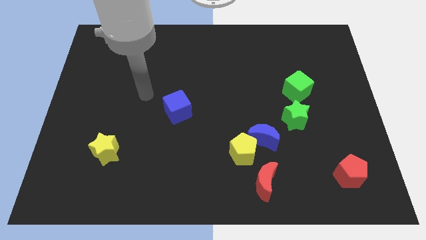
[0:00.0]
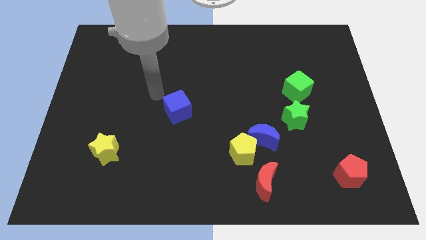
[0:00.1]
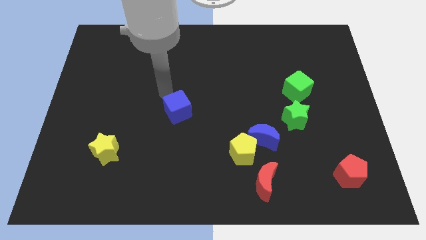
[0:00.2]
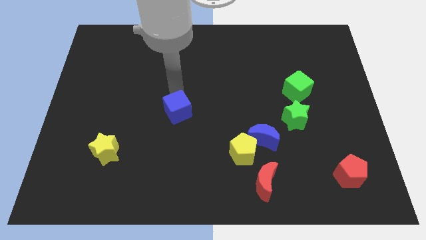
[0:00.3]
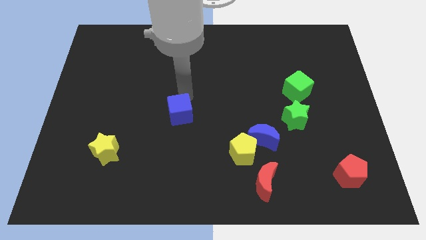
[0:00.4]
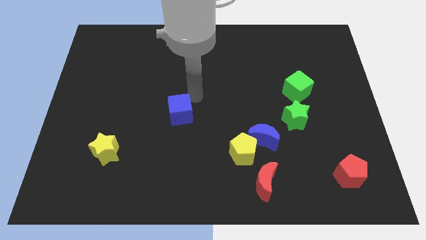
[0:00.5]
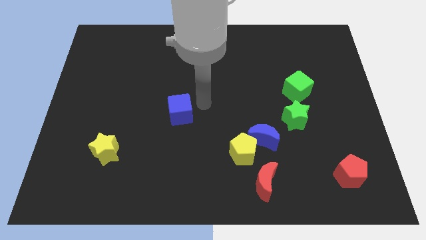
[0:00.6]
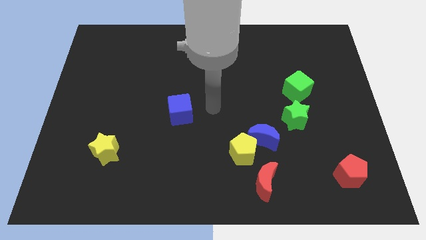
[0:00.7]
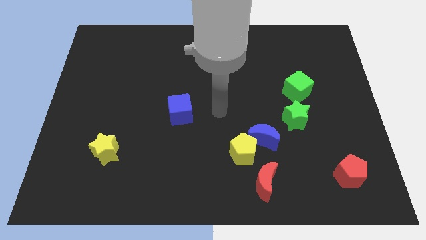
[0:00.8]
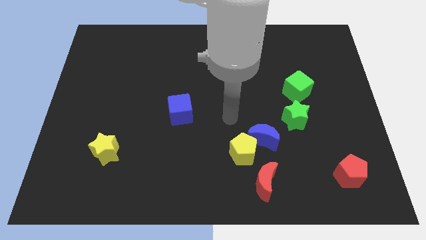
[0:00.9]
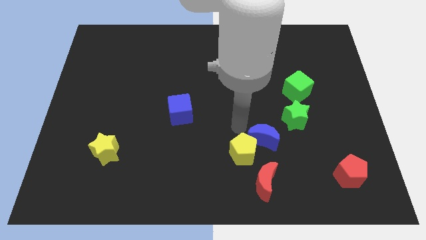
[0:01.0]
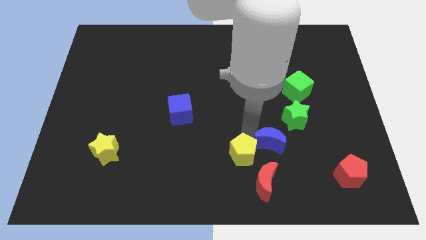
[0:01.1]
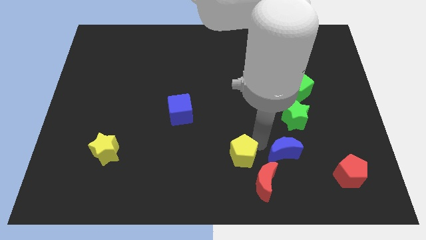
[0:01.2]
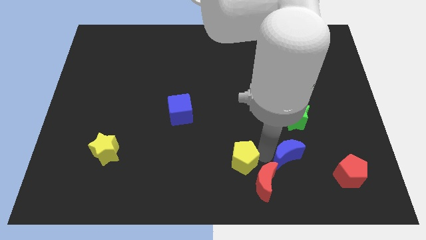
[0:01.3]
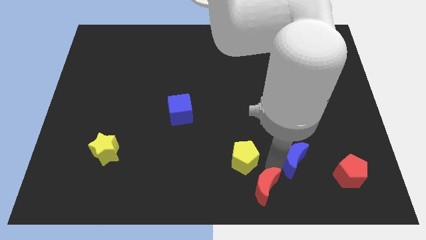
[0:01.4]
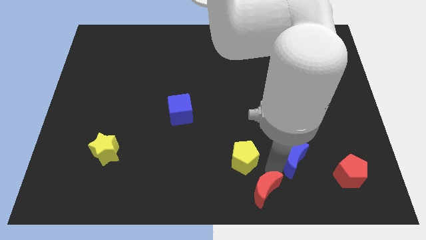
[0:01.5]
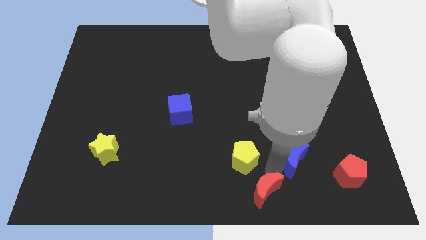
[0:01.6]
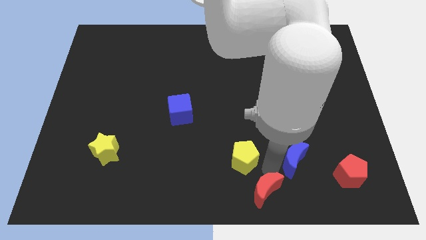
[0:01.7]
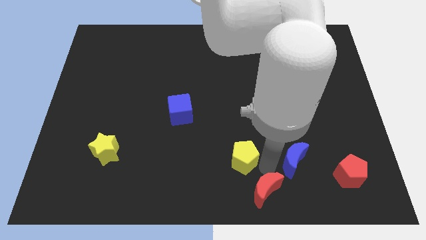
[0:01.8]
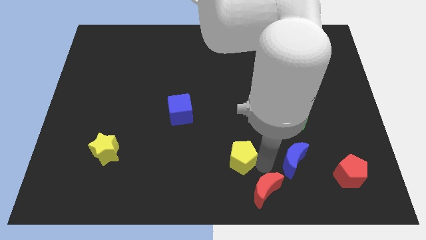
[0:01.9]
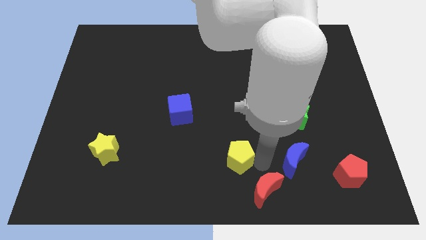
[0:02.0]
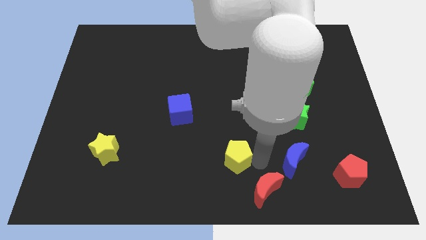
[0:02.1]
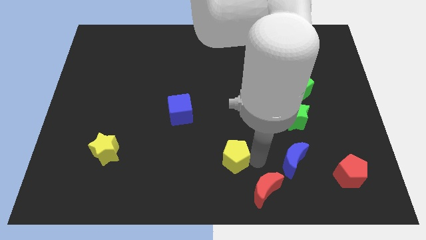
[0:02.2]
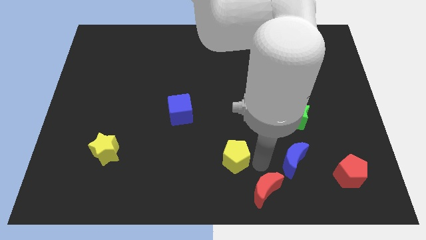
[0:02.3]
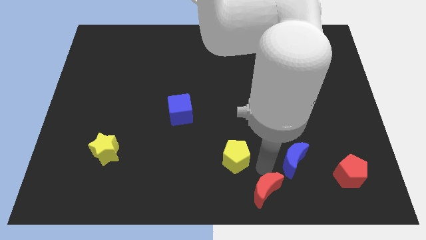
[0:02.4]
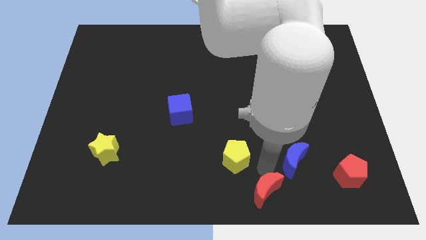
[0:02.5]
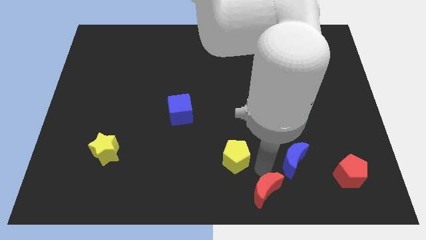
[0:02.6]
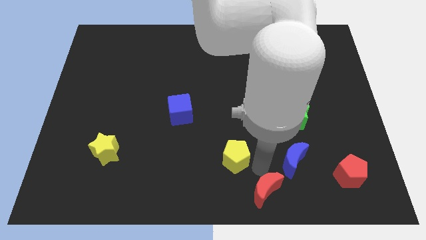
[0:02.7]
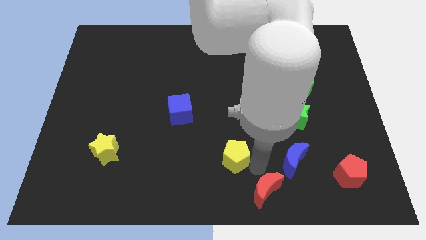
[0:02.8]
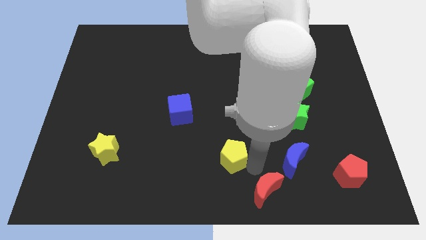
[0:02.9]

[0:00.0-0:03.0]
separate the yellow pentagon from the blue moon and red moon

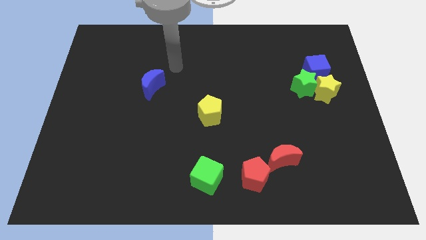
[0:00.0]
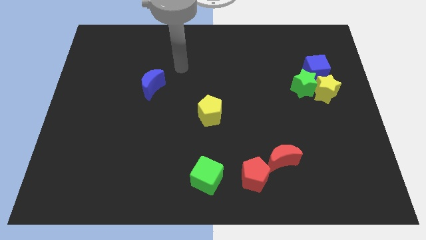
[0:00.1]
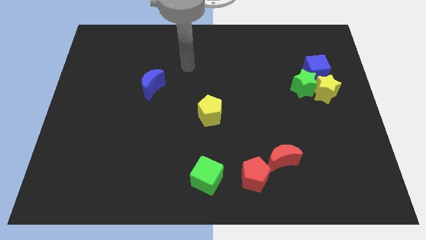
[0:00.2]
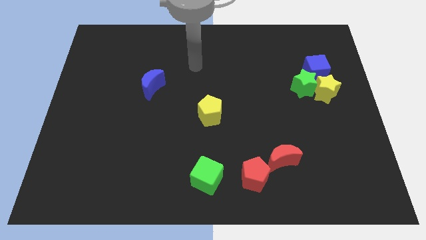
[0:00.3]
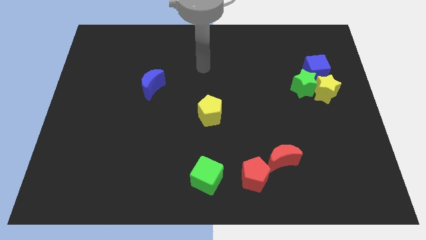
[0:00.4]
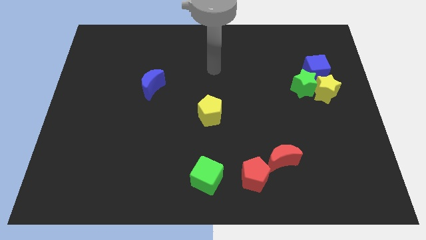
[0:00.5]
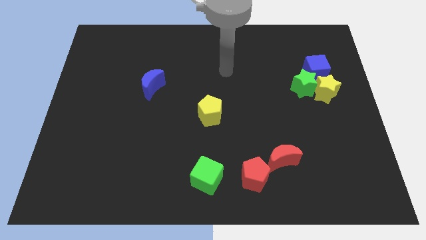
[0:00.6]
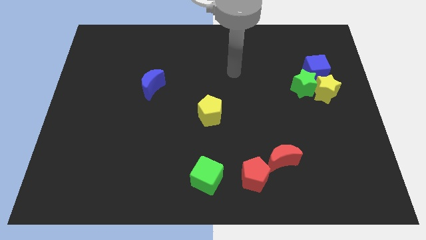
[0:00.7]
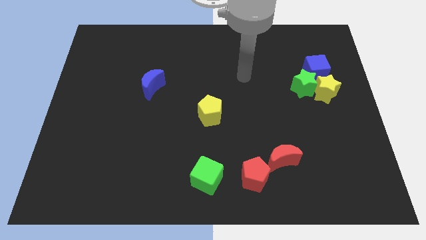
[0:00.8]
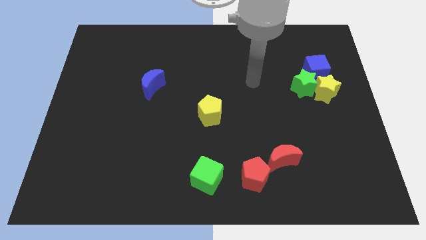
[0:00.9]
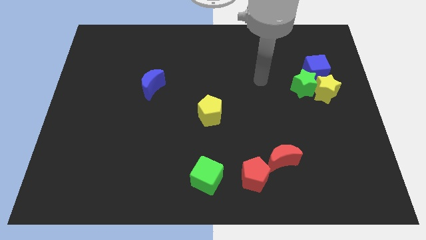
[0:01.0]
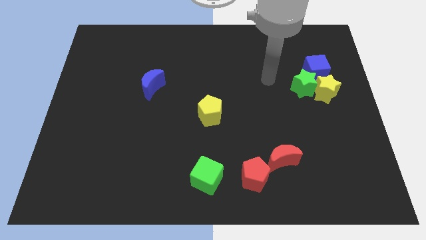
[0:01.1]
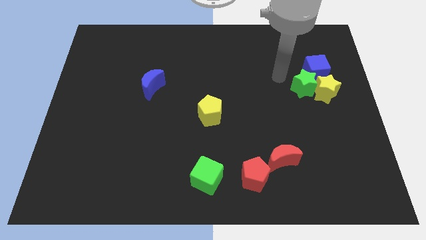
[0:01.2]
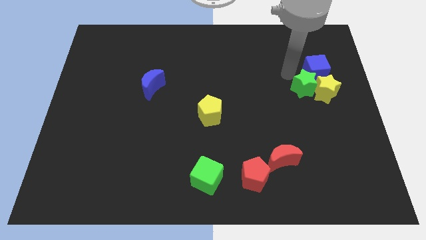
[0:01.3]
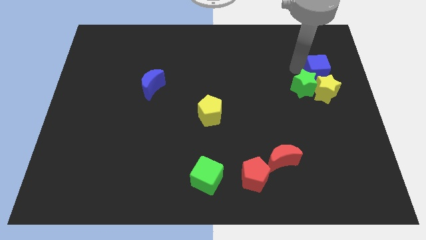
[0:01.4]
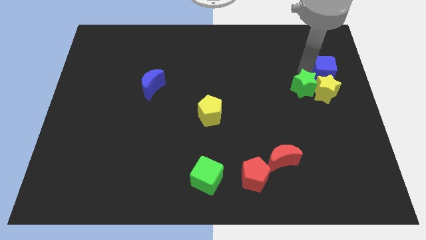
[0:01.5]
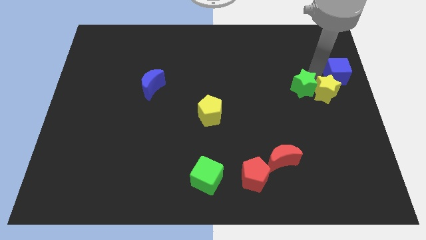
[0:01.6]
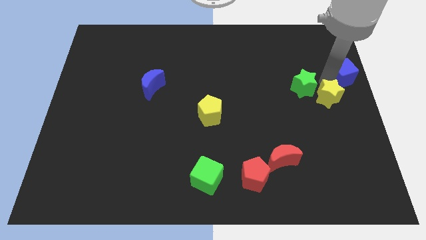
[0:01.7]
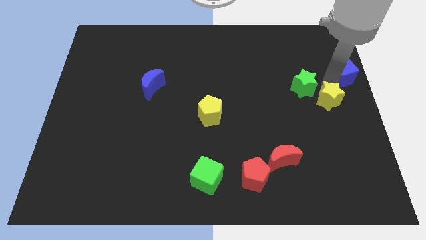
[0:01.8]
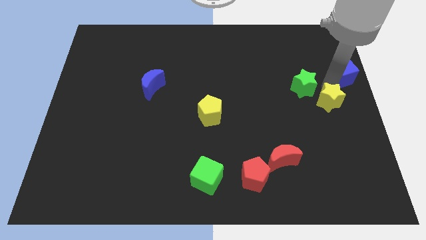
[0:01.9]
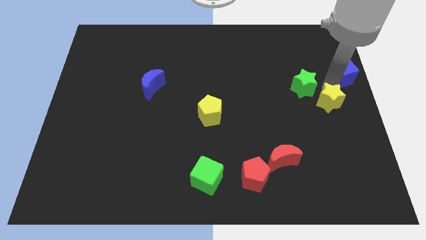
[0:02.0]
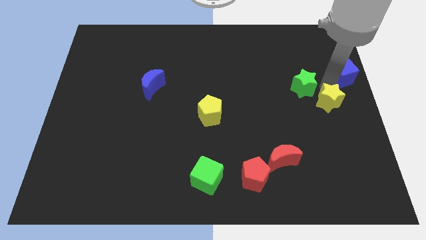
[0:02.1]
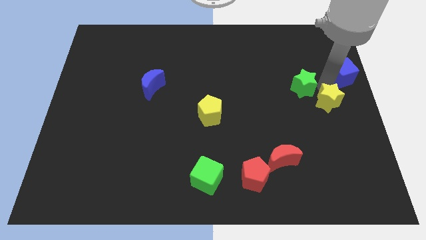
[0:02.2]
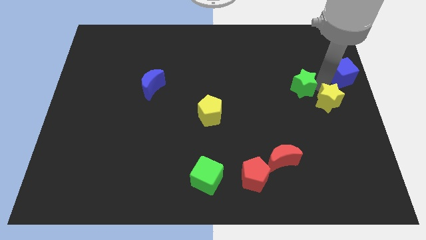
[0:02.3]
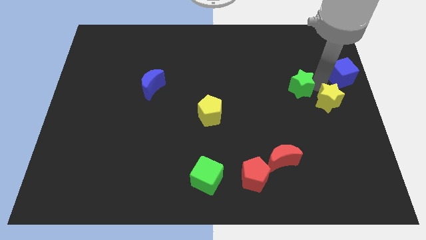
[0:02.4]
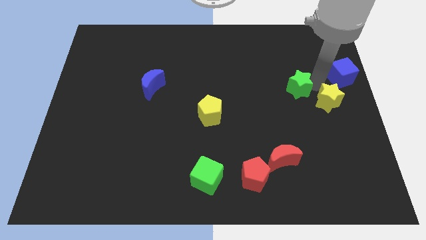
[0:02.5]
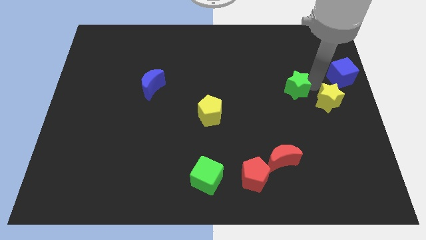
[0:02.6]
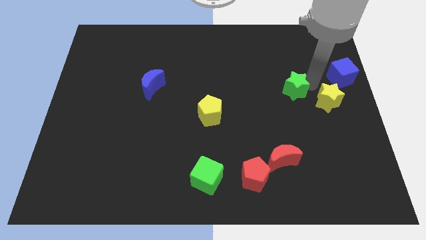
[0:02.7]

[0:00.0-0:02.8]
pull the green star apart from the yellow star and blue cube

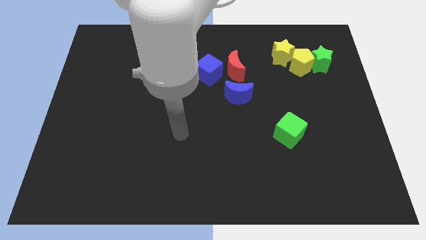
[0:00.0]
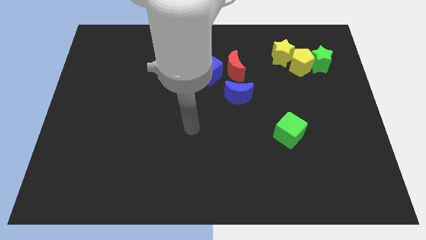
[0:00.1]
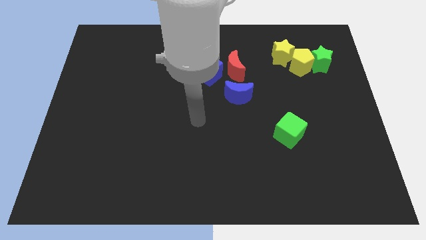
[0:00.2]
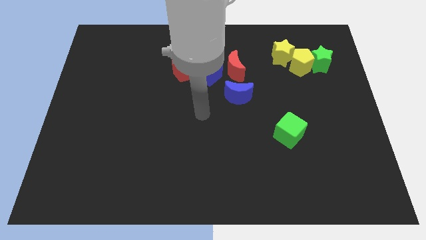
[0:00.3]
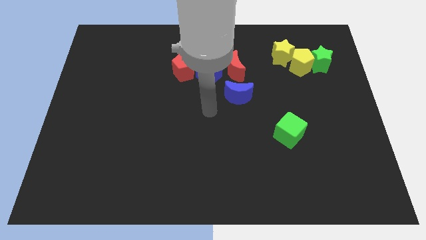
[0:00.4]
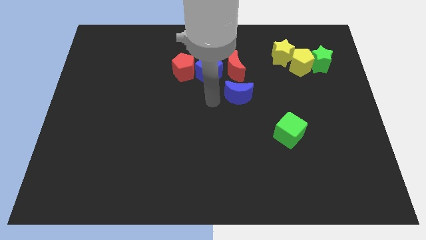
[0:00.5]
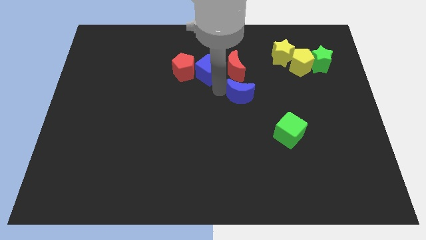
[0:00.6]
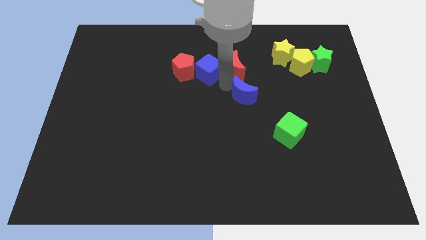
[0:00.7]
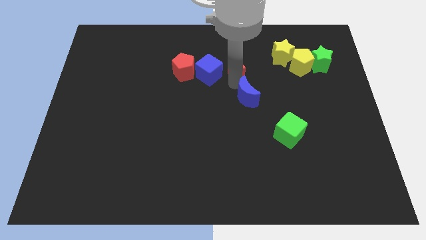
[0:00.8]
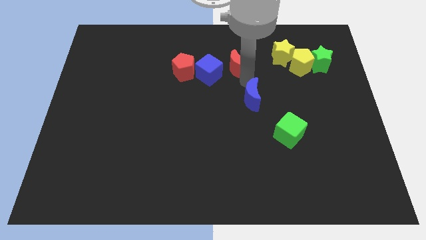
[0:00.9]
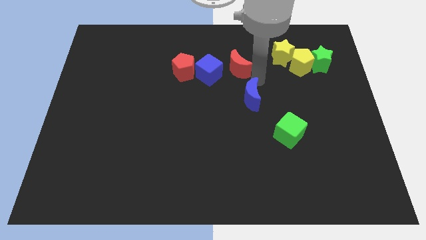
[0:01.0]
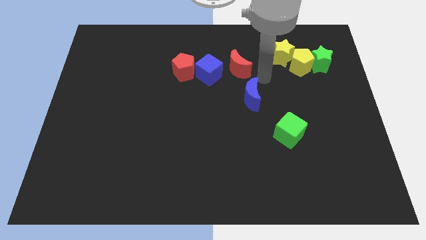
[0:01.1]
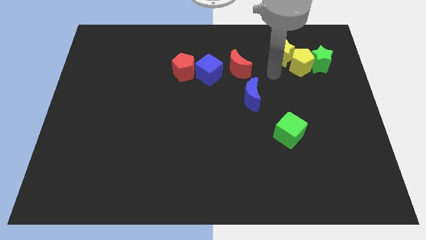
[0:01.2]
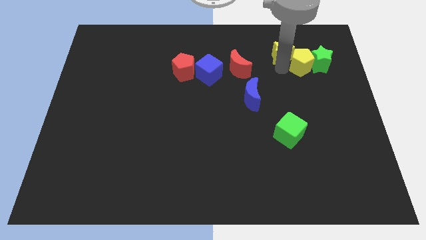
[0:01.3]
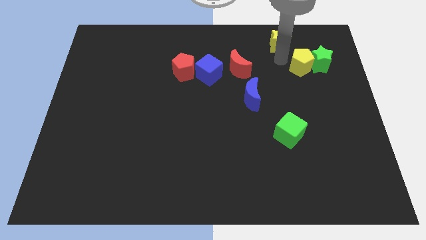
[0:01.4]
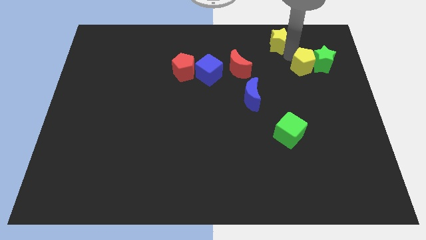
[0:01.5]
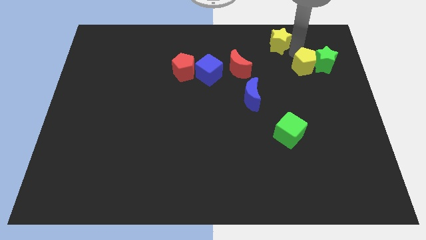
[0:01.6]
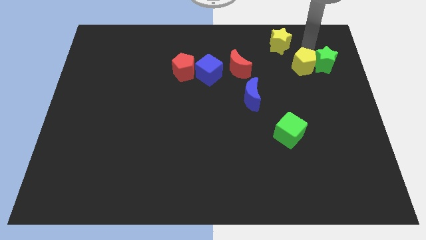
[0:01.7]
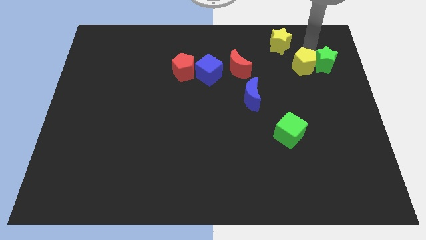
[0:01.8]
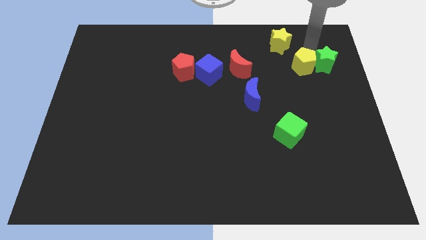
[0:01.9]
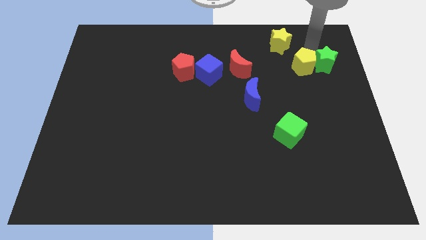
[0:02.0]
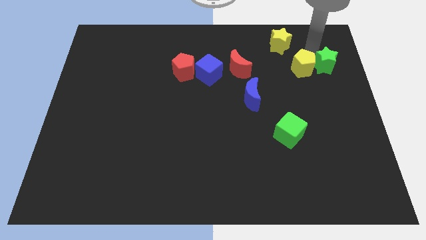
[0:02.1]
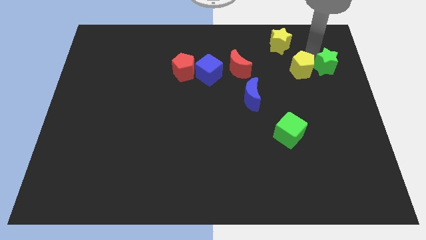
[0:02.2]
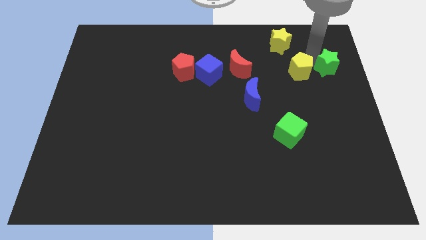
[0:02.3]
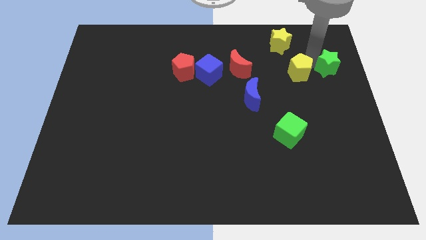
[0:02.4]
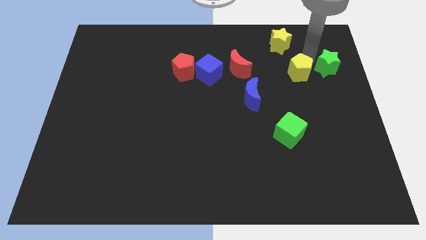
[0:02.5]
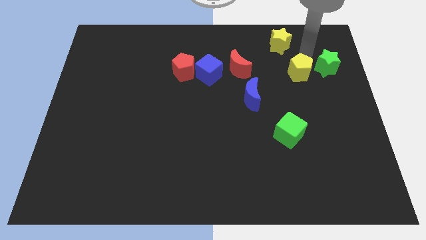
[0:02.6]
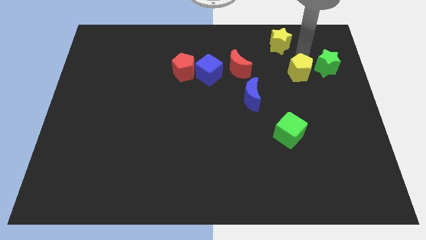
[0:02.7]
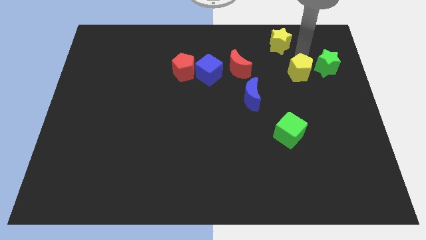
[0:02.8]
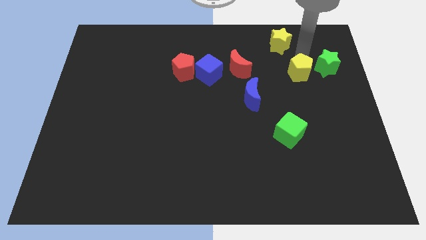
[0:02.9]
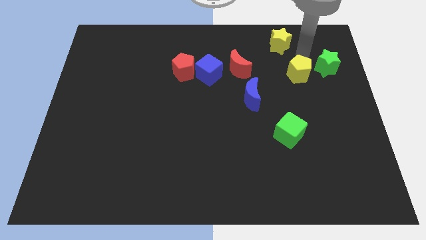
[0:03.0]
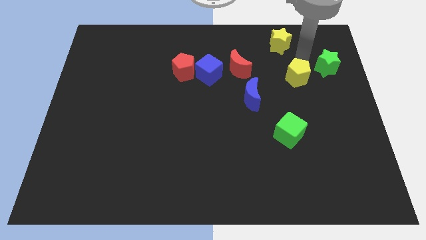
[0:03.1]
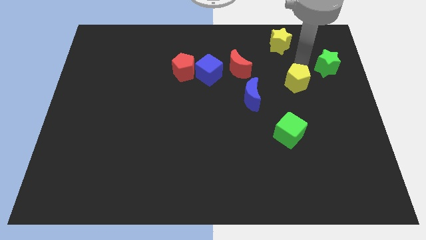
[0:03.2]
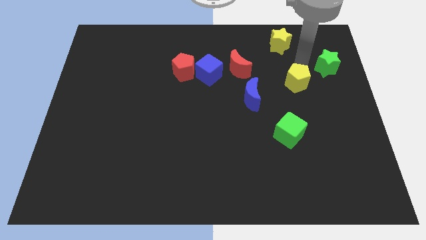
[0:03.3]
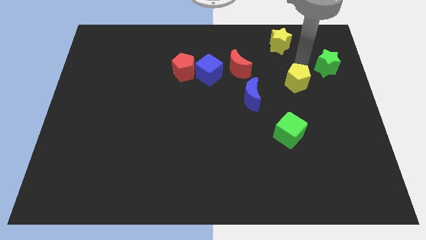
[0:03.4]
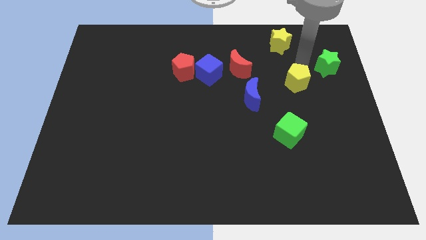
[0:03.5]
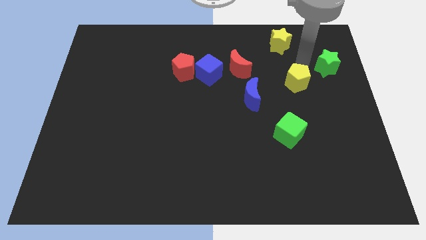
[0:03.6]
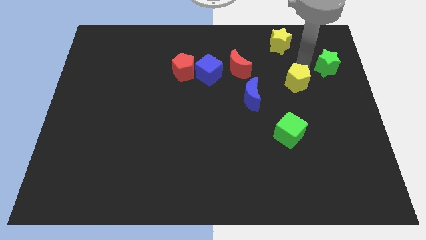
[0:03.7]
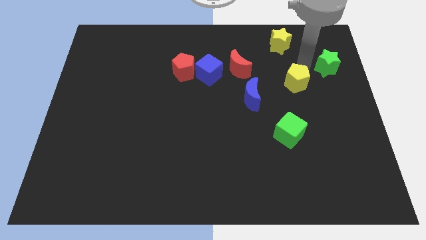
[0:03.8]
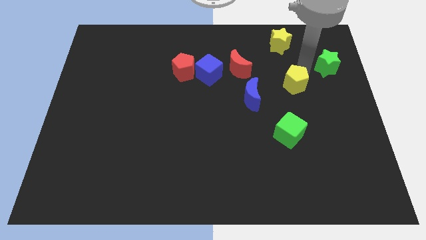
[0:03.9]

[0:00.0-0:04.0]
move the yellow pentagon away from the green star and yellow star
